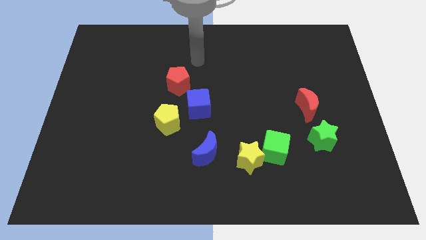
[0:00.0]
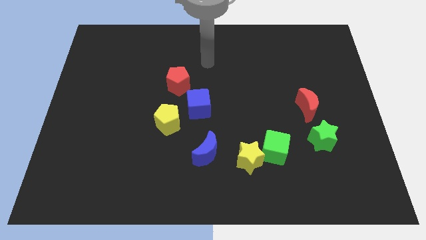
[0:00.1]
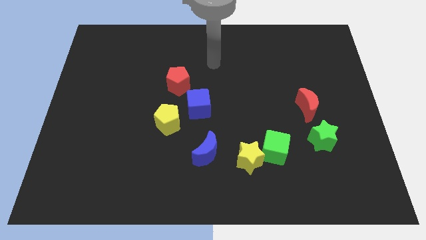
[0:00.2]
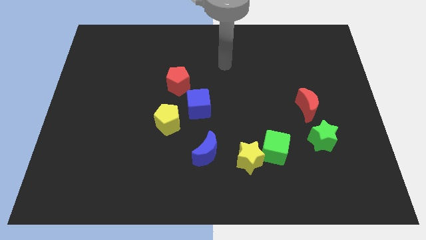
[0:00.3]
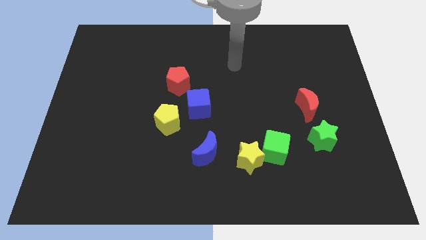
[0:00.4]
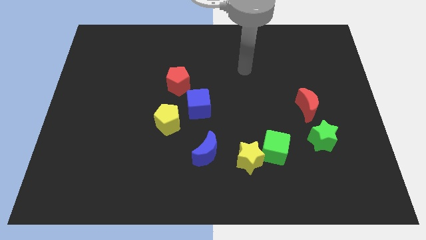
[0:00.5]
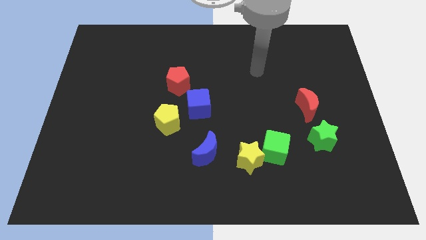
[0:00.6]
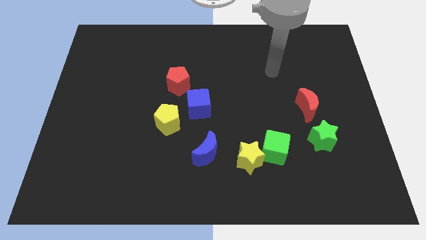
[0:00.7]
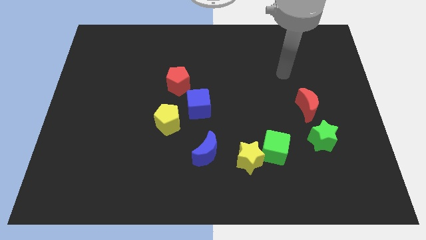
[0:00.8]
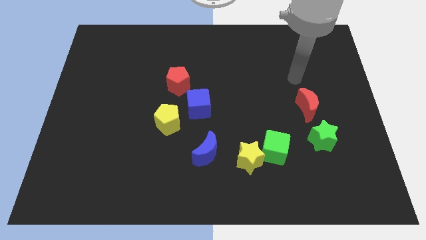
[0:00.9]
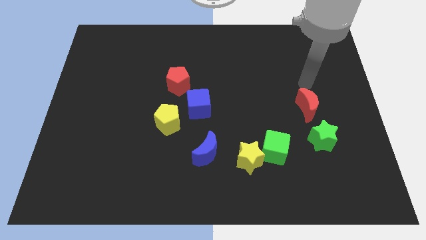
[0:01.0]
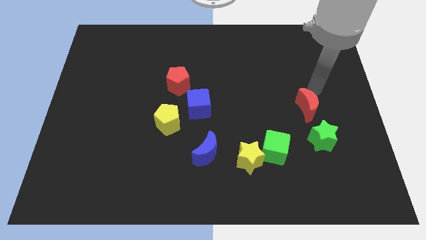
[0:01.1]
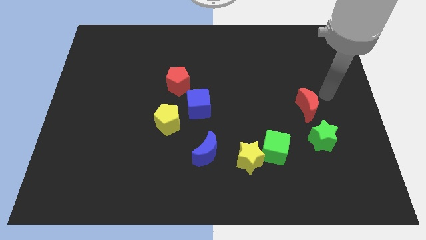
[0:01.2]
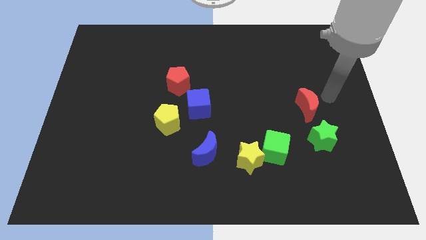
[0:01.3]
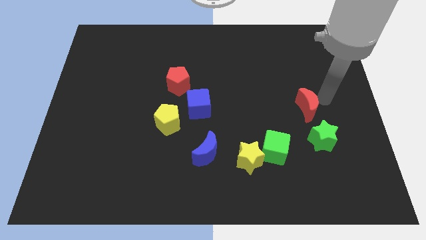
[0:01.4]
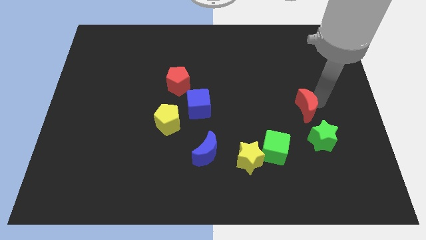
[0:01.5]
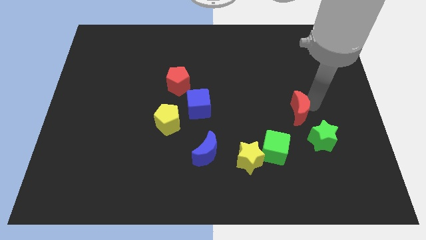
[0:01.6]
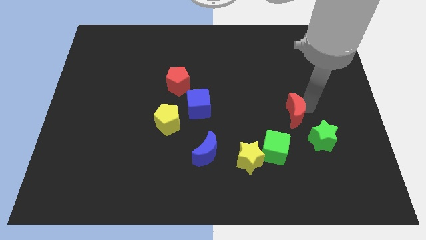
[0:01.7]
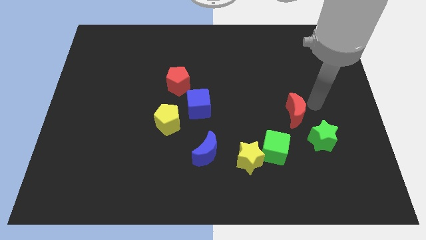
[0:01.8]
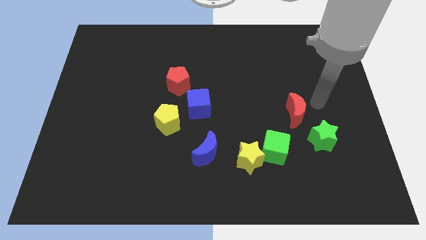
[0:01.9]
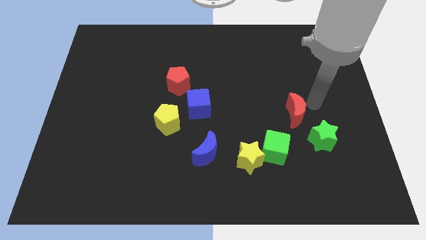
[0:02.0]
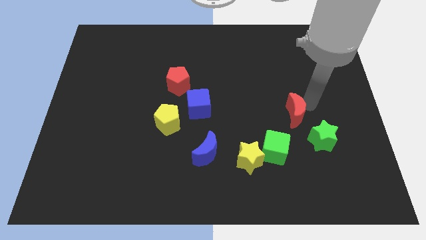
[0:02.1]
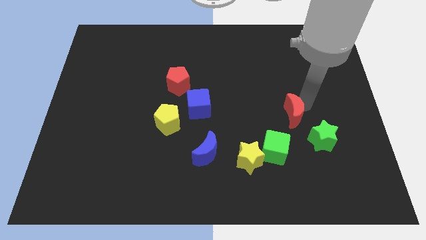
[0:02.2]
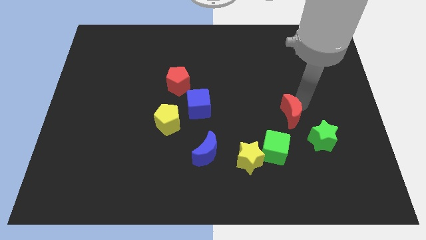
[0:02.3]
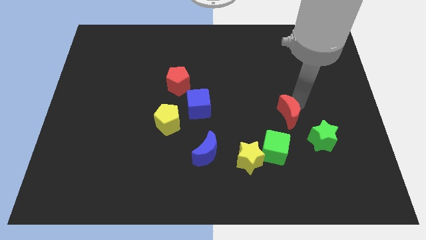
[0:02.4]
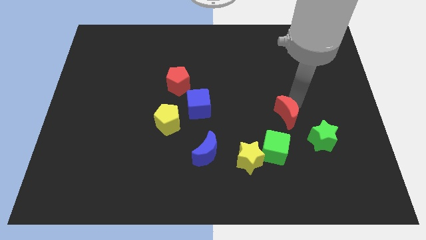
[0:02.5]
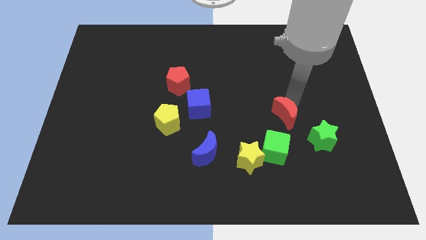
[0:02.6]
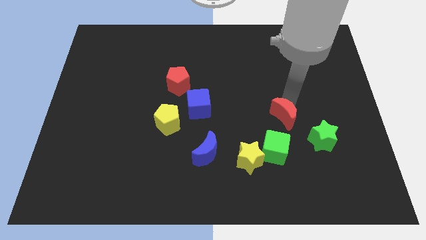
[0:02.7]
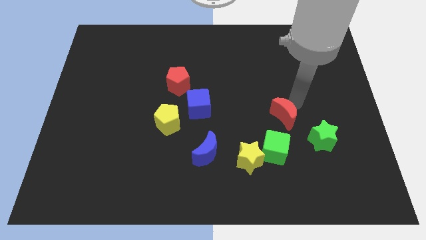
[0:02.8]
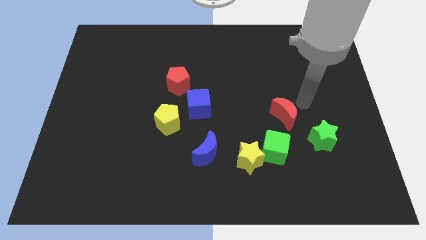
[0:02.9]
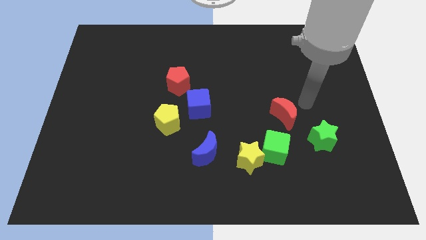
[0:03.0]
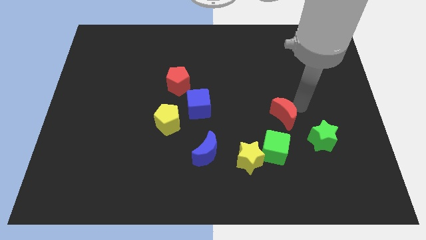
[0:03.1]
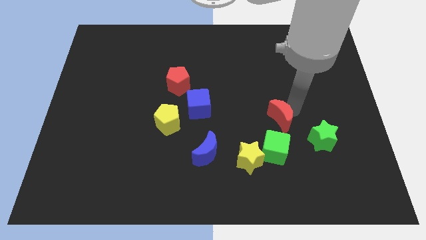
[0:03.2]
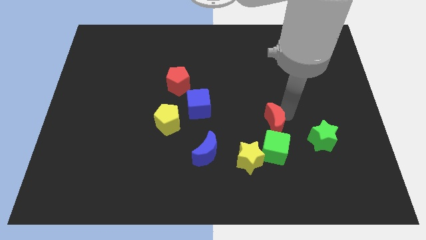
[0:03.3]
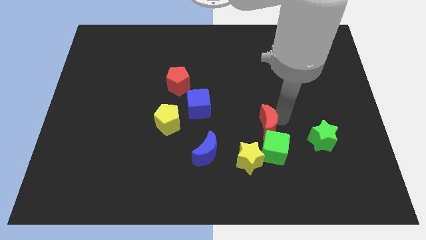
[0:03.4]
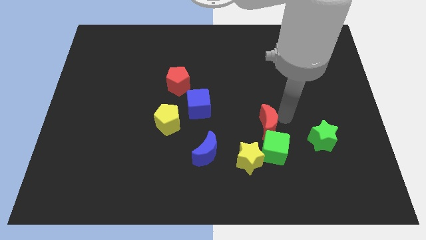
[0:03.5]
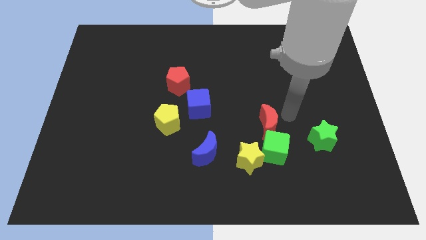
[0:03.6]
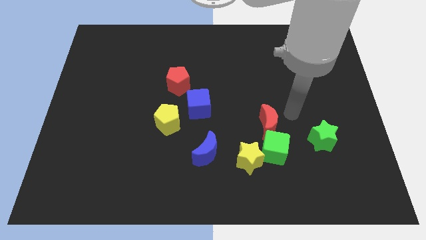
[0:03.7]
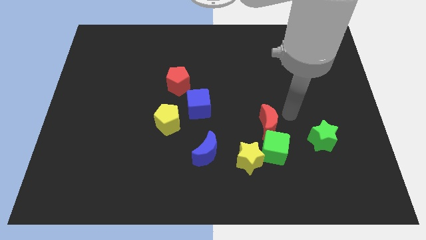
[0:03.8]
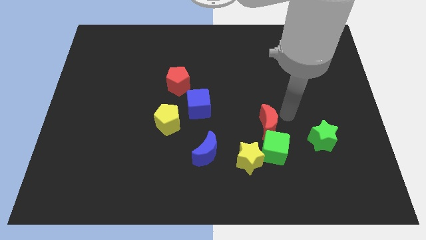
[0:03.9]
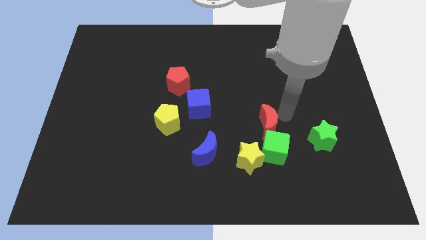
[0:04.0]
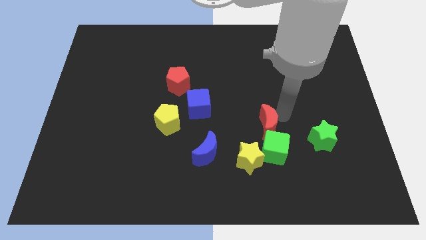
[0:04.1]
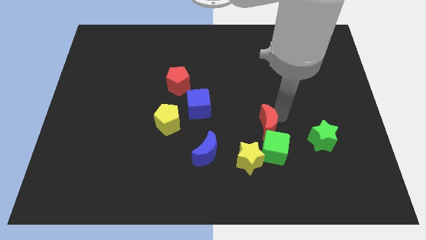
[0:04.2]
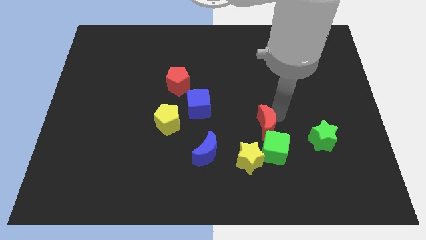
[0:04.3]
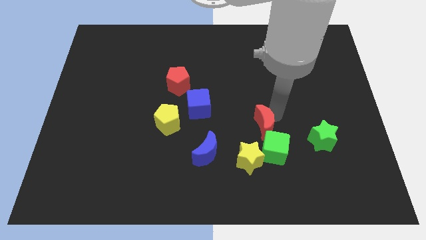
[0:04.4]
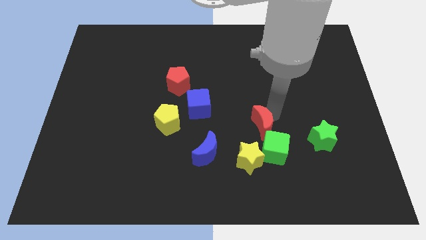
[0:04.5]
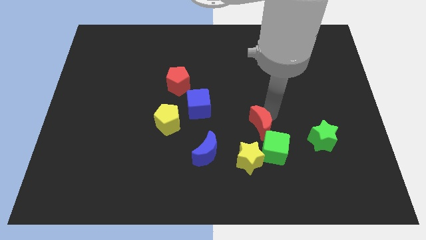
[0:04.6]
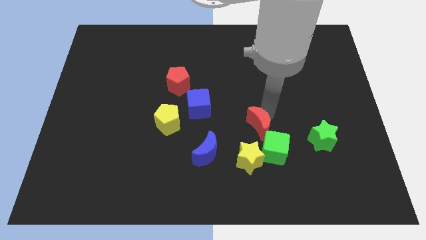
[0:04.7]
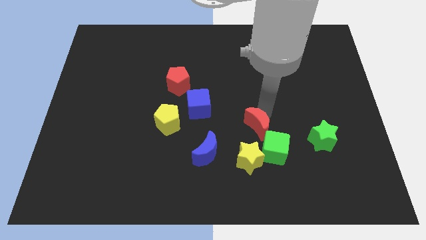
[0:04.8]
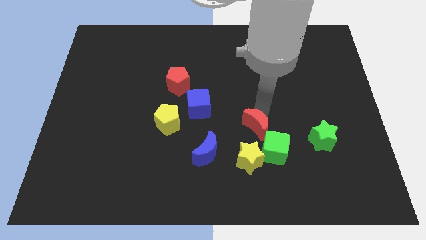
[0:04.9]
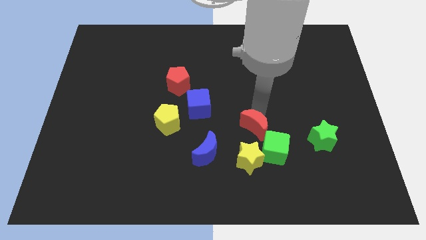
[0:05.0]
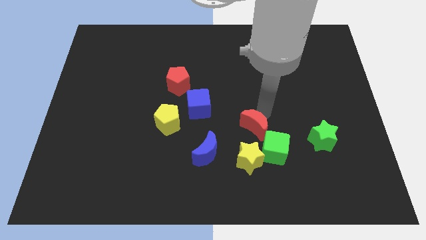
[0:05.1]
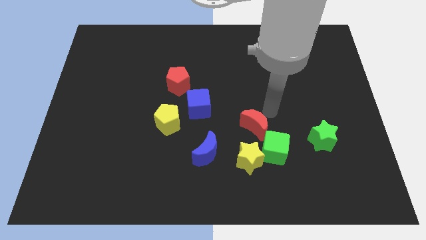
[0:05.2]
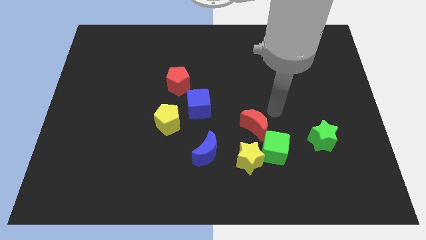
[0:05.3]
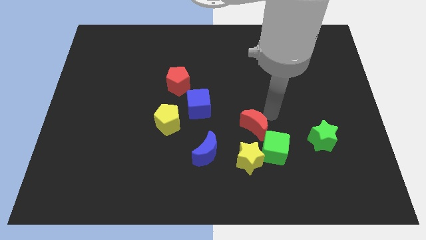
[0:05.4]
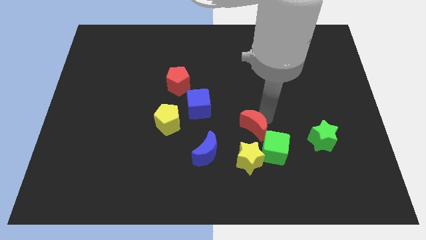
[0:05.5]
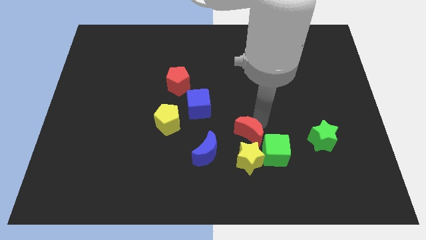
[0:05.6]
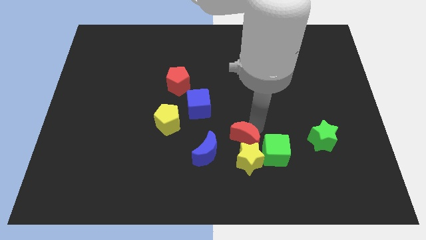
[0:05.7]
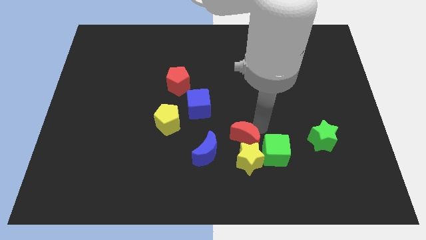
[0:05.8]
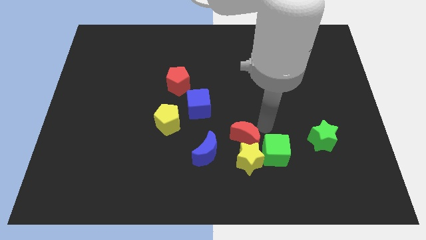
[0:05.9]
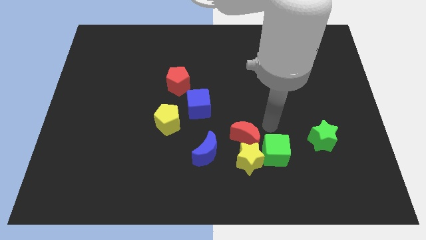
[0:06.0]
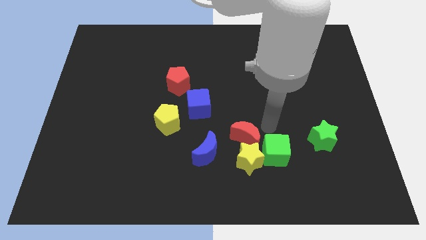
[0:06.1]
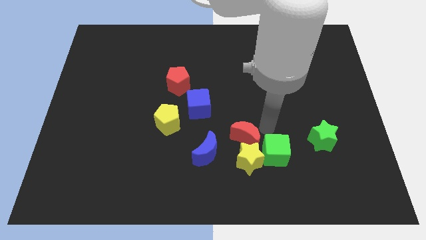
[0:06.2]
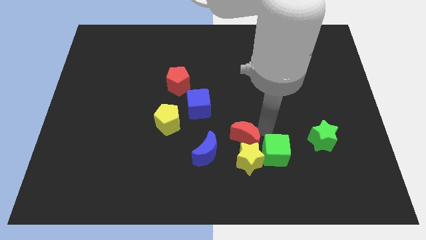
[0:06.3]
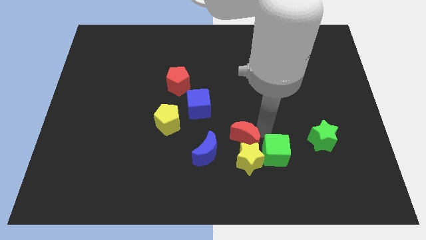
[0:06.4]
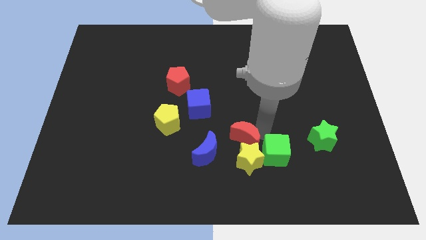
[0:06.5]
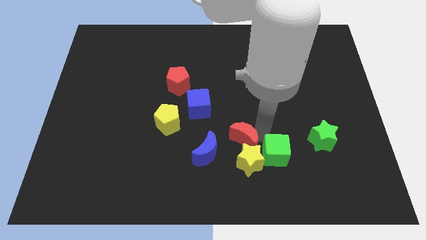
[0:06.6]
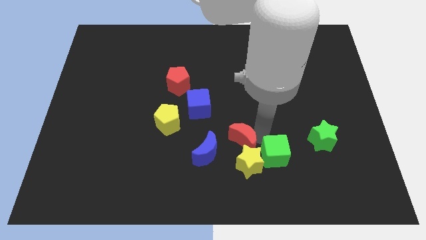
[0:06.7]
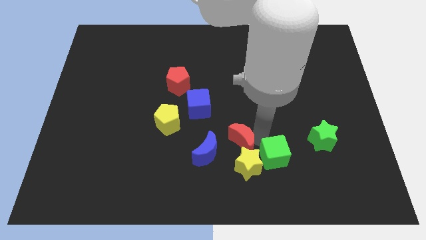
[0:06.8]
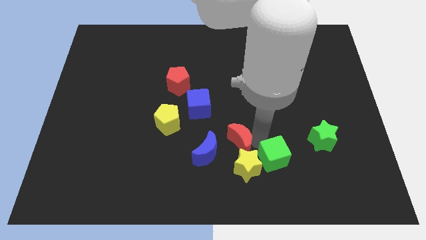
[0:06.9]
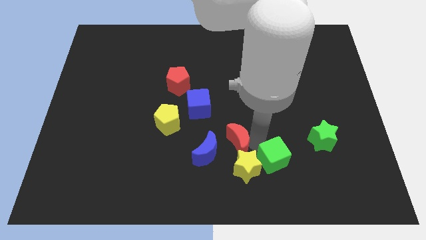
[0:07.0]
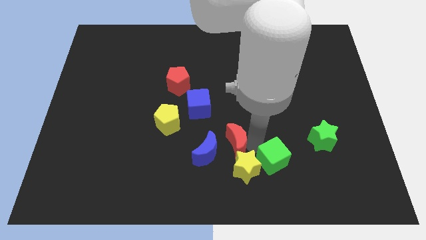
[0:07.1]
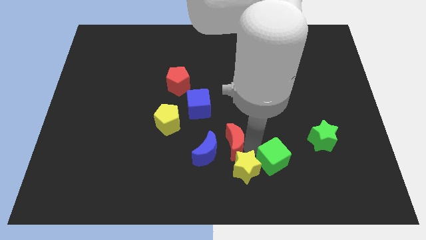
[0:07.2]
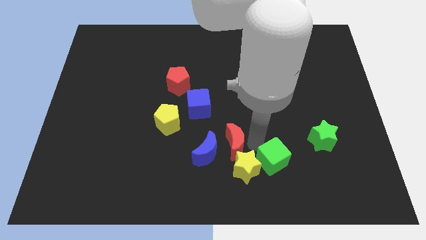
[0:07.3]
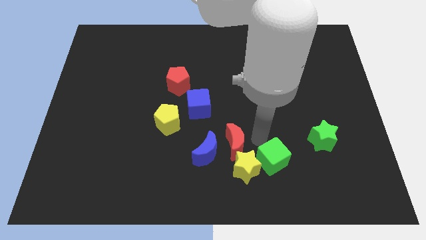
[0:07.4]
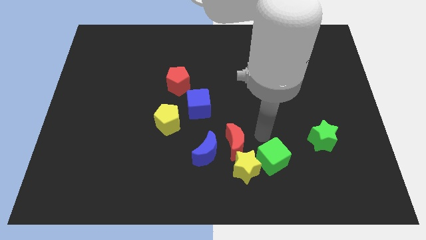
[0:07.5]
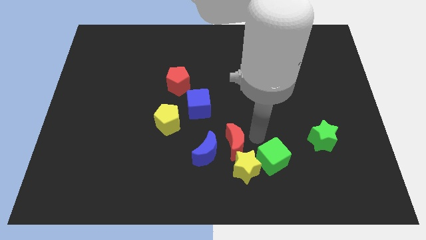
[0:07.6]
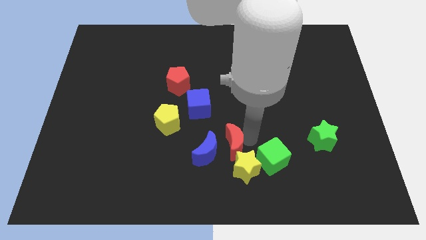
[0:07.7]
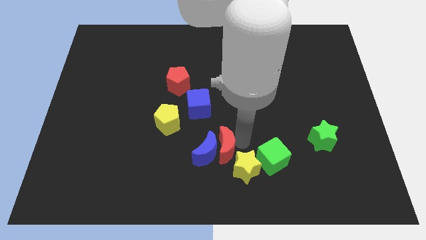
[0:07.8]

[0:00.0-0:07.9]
slide the red moon towards the blue moon
